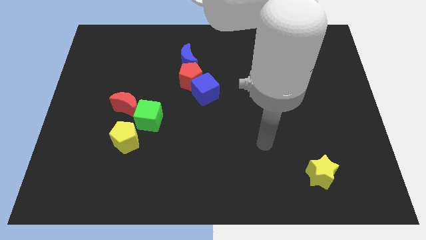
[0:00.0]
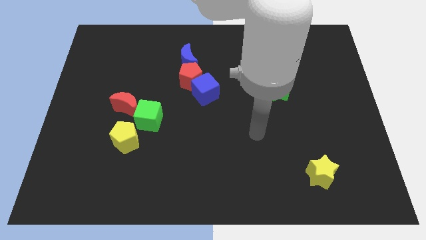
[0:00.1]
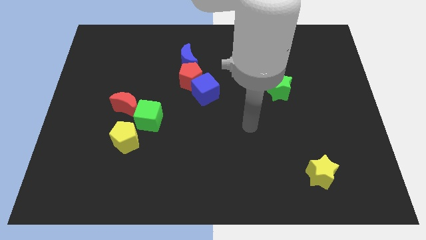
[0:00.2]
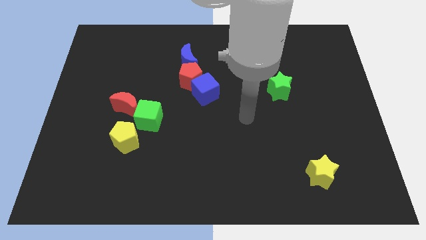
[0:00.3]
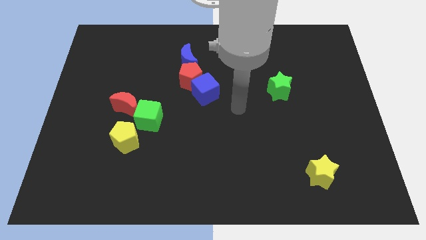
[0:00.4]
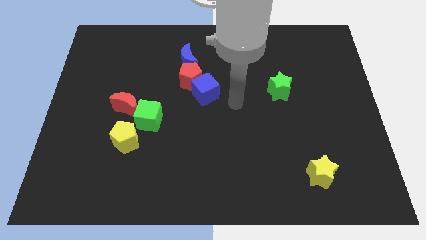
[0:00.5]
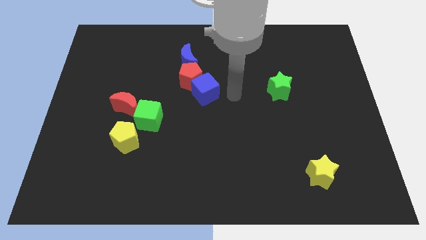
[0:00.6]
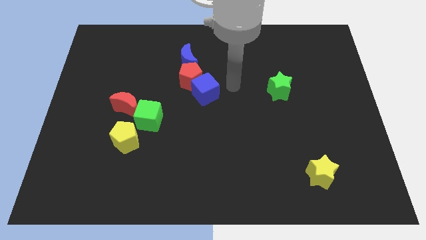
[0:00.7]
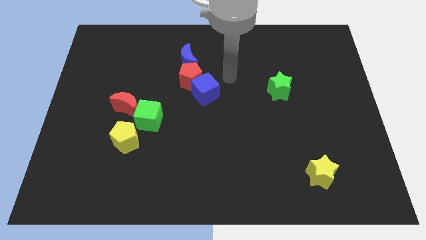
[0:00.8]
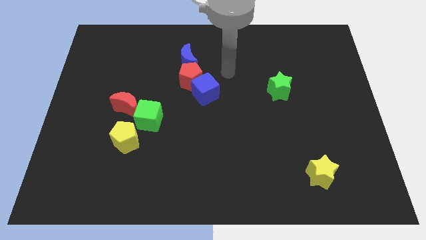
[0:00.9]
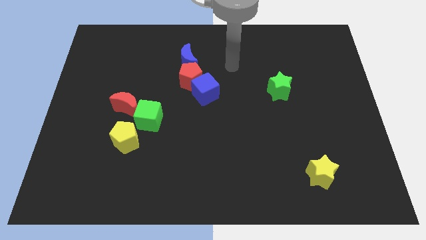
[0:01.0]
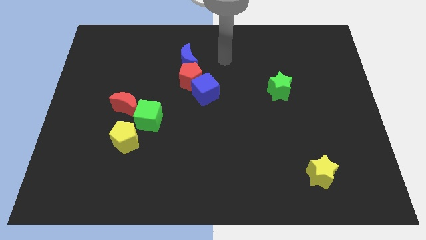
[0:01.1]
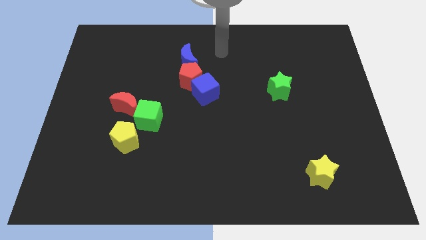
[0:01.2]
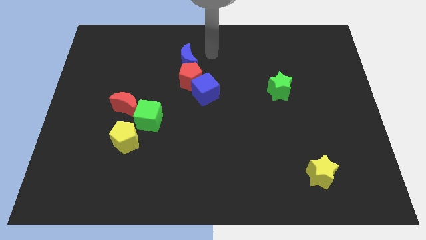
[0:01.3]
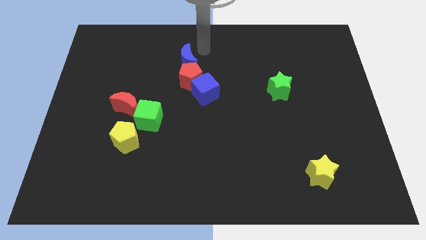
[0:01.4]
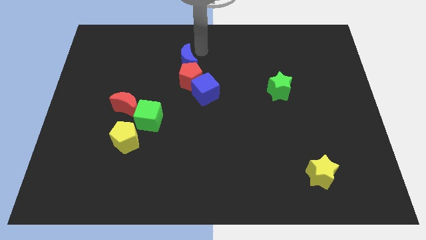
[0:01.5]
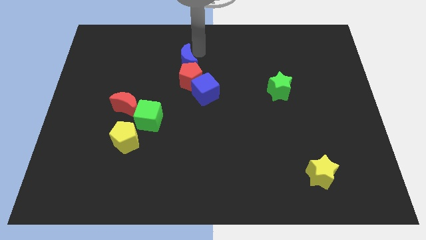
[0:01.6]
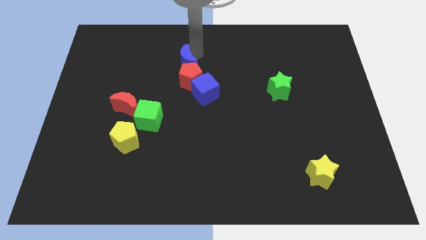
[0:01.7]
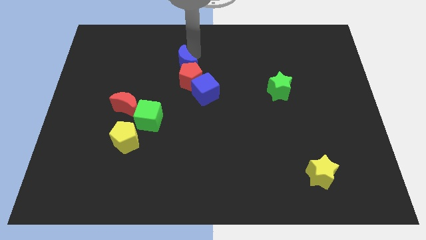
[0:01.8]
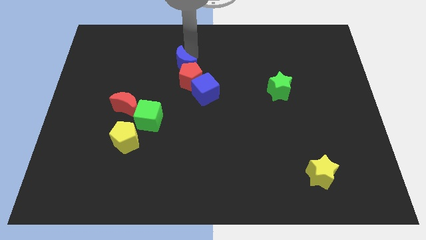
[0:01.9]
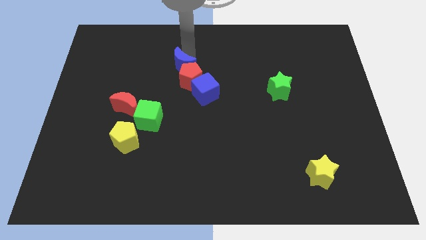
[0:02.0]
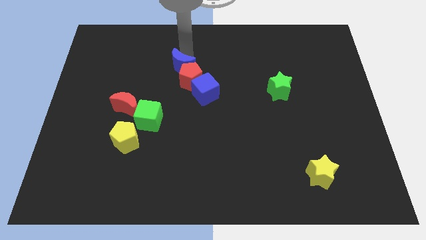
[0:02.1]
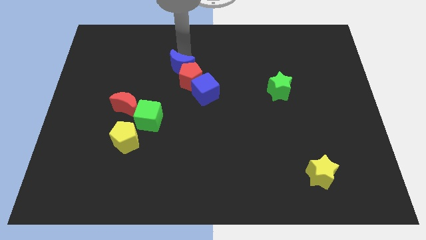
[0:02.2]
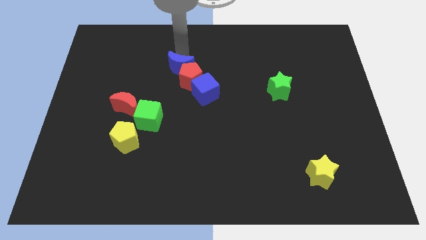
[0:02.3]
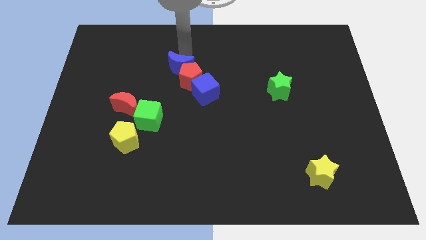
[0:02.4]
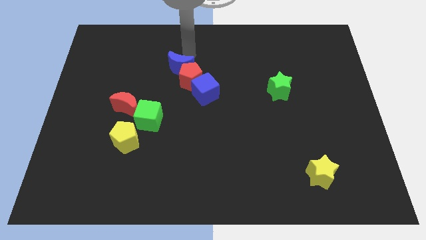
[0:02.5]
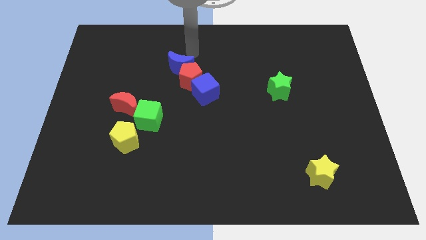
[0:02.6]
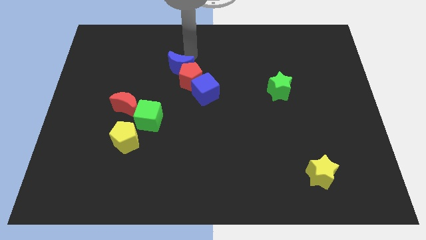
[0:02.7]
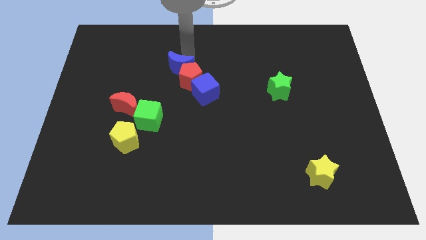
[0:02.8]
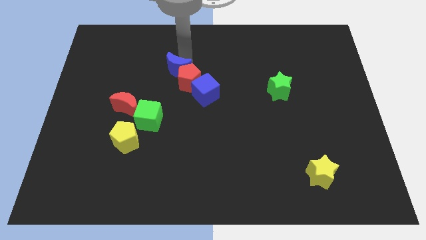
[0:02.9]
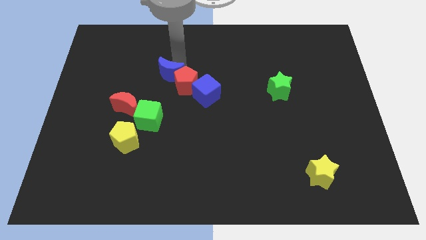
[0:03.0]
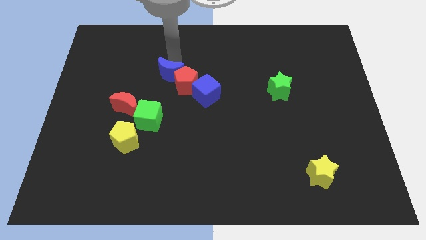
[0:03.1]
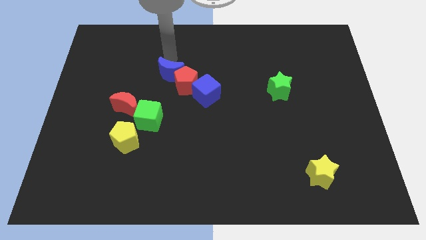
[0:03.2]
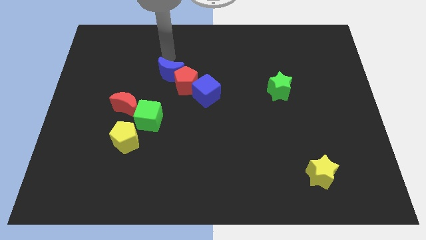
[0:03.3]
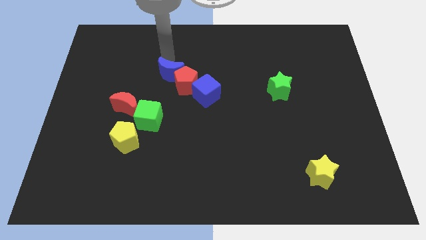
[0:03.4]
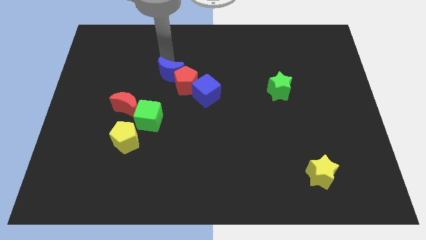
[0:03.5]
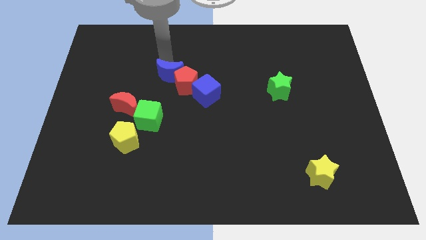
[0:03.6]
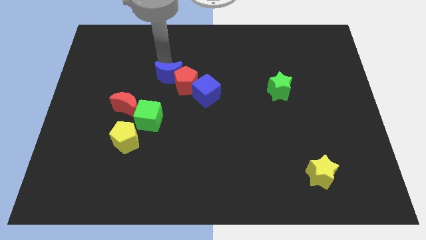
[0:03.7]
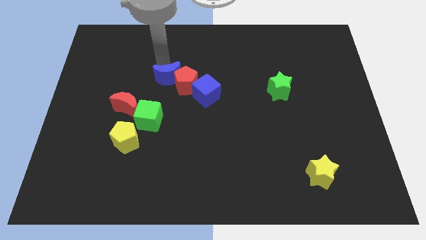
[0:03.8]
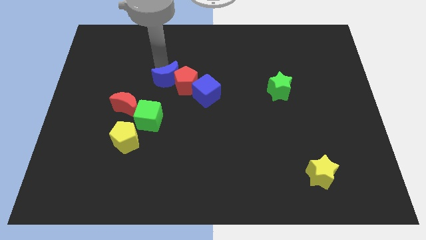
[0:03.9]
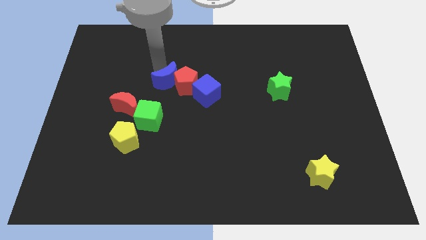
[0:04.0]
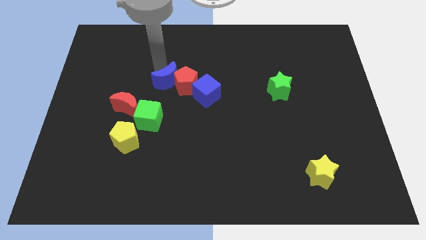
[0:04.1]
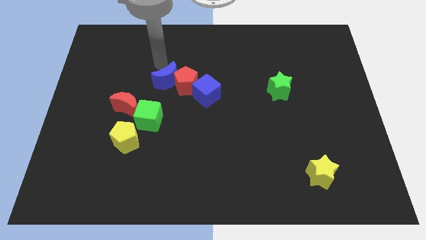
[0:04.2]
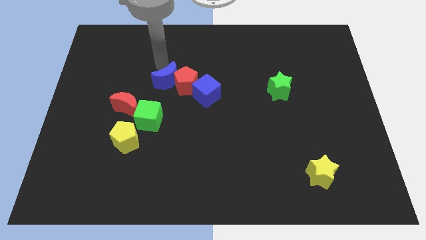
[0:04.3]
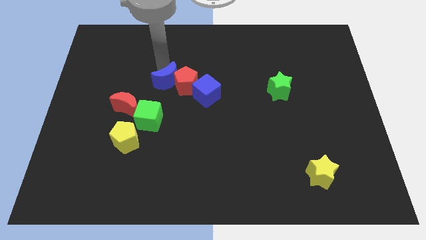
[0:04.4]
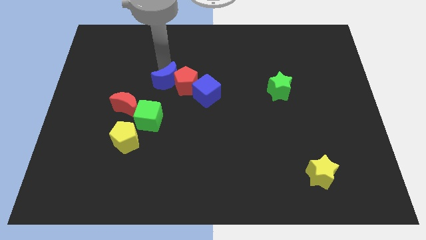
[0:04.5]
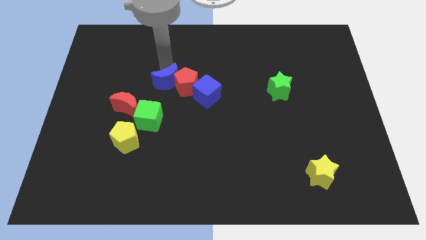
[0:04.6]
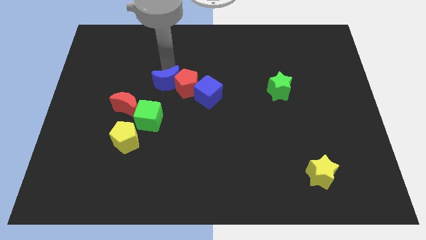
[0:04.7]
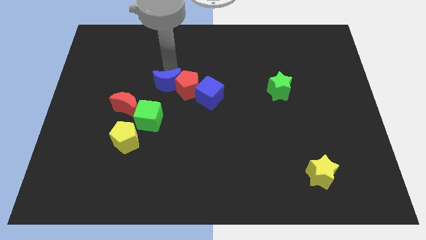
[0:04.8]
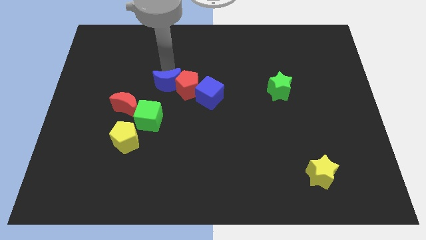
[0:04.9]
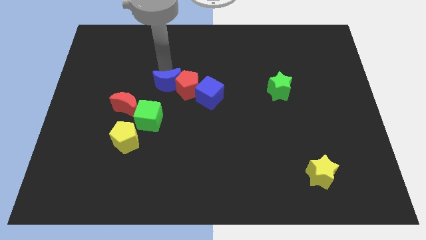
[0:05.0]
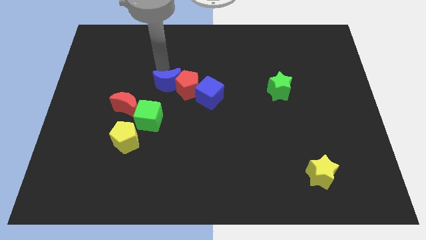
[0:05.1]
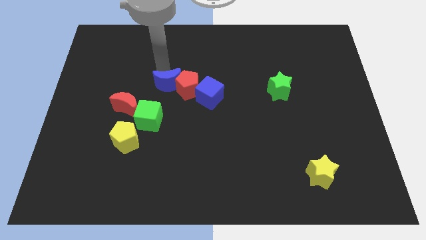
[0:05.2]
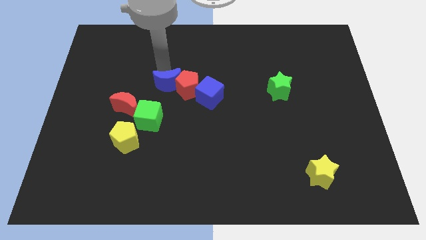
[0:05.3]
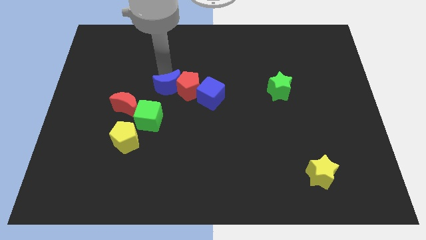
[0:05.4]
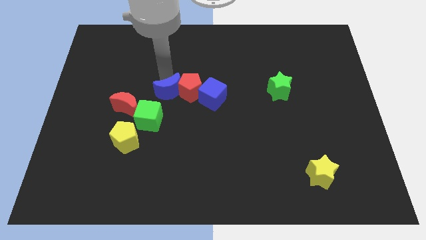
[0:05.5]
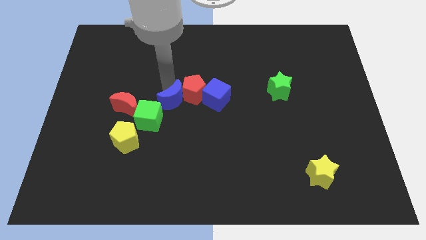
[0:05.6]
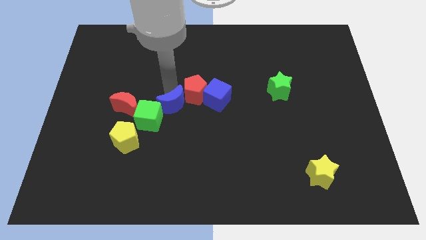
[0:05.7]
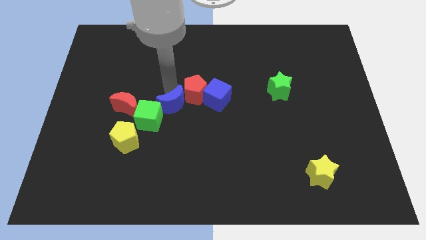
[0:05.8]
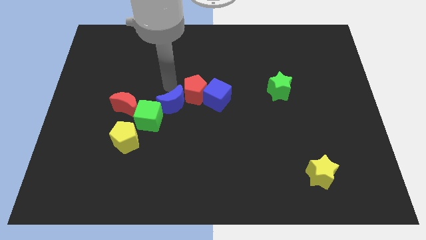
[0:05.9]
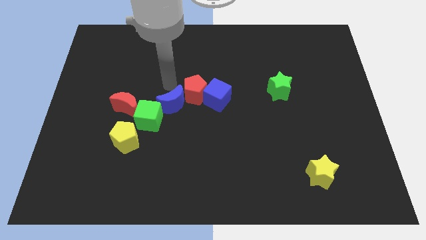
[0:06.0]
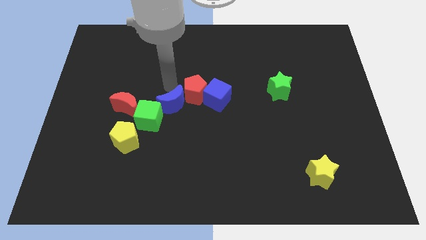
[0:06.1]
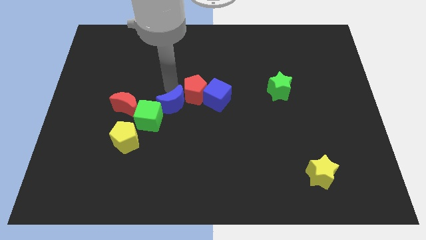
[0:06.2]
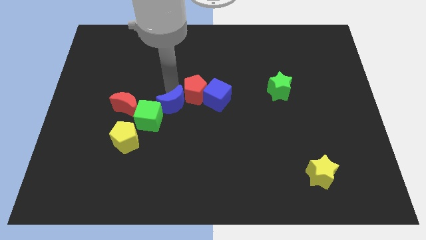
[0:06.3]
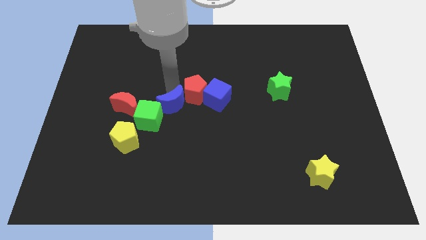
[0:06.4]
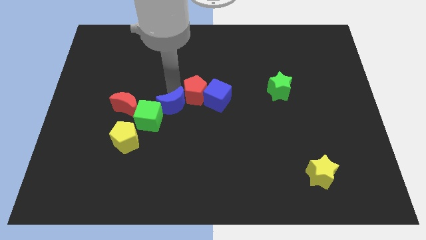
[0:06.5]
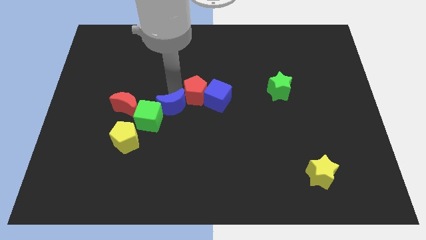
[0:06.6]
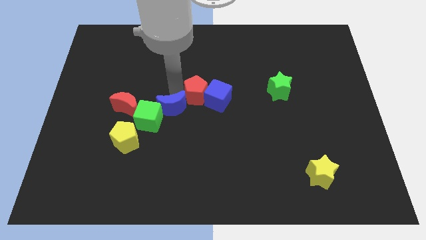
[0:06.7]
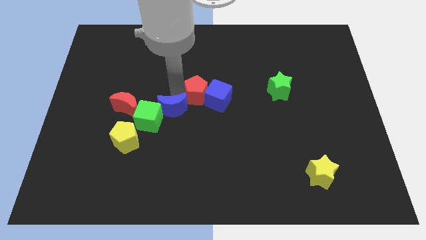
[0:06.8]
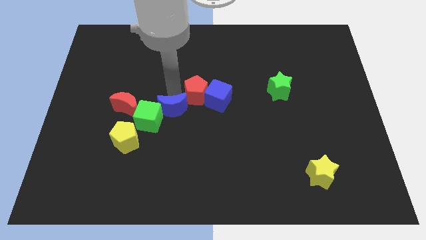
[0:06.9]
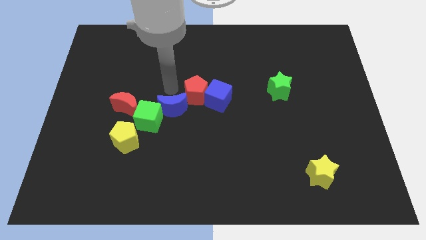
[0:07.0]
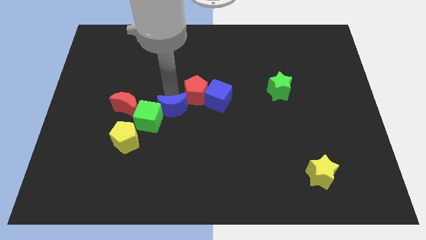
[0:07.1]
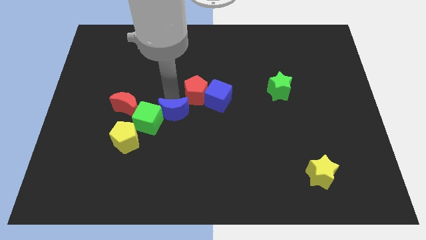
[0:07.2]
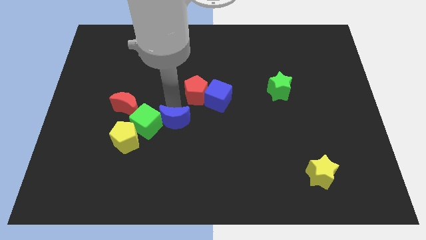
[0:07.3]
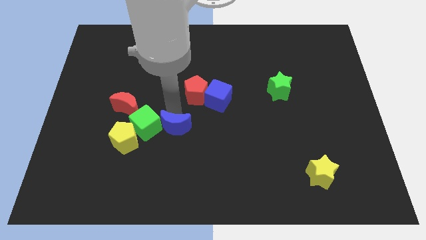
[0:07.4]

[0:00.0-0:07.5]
move the blue moon down

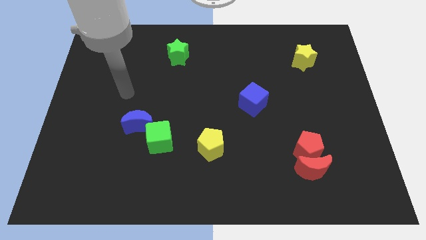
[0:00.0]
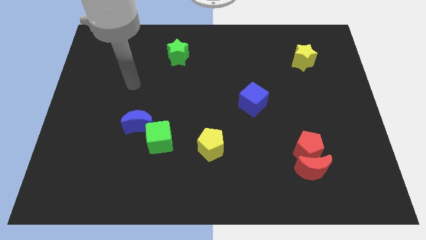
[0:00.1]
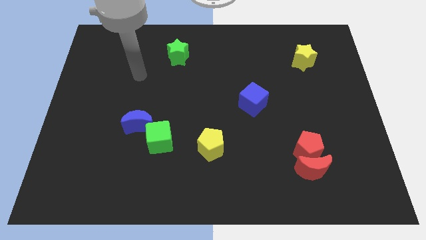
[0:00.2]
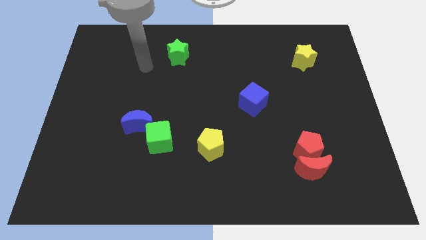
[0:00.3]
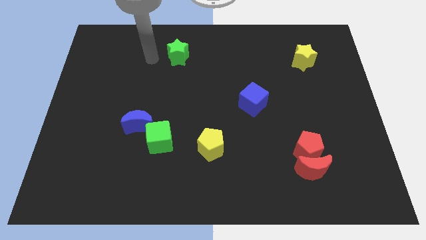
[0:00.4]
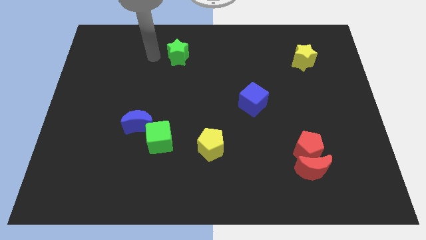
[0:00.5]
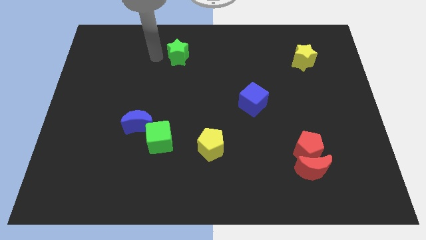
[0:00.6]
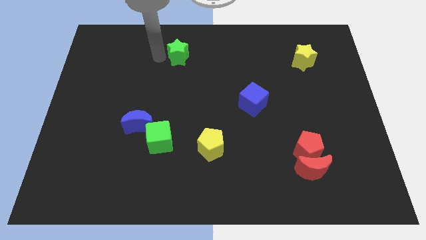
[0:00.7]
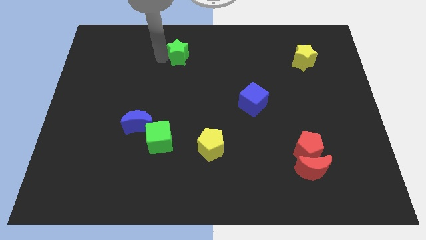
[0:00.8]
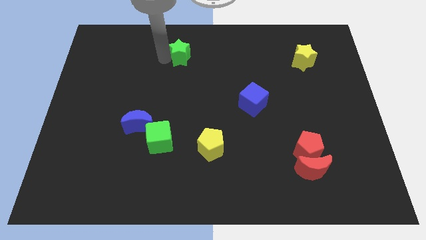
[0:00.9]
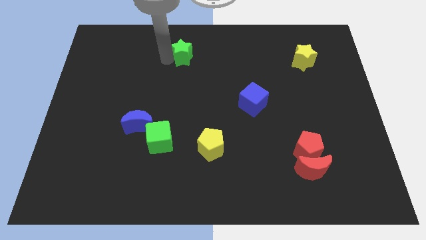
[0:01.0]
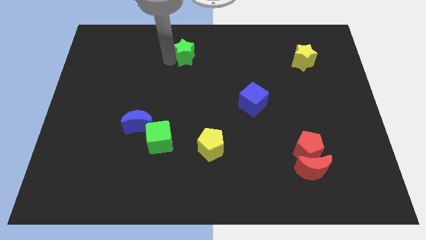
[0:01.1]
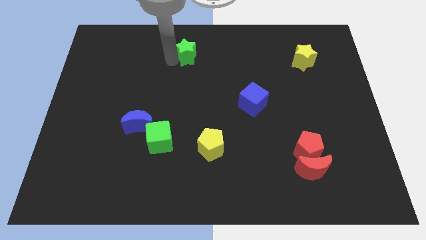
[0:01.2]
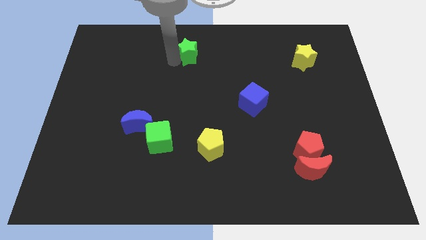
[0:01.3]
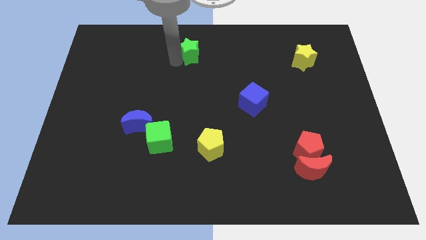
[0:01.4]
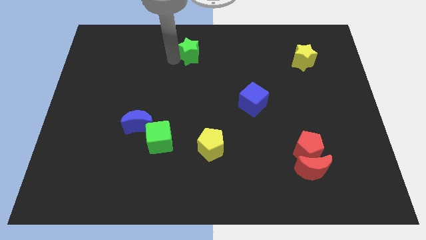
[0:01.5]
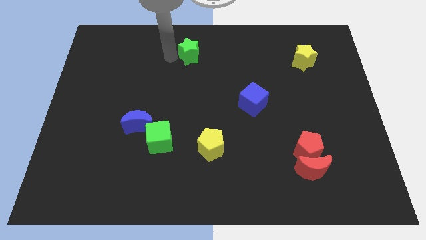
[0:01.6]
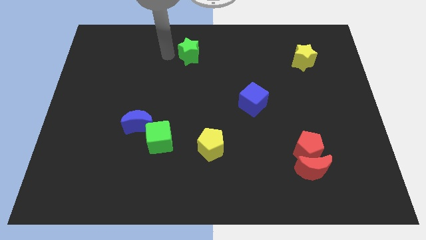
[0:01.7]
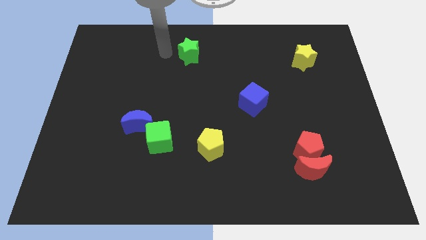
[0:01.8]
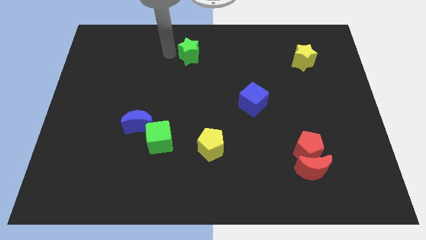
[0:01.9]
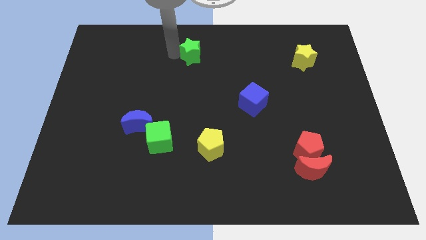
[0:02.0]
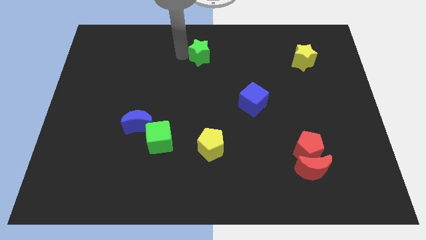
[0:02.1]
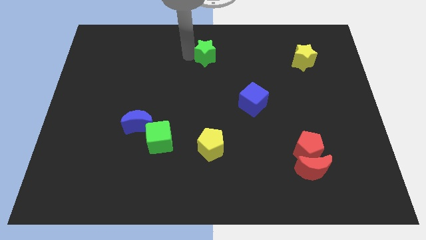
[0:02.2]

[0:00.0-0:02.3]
push the green star slightly right
